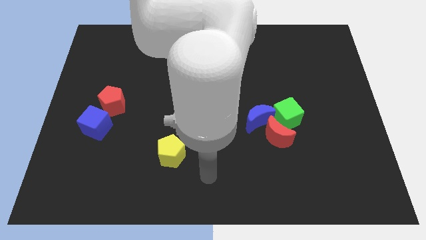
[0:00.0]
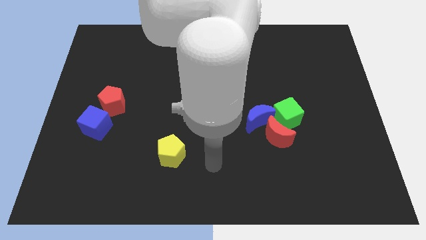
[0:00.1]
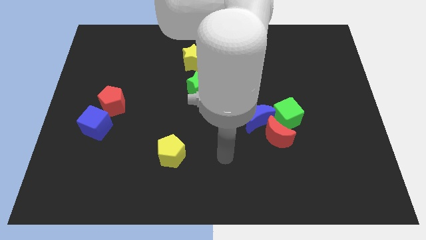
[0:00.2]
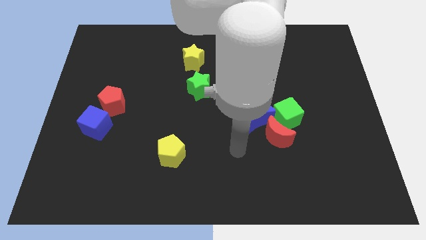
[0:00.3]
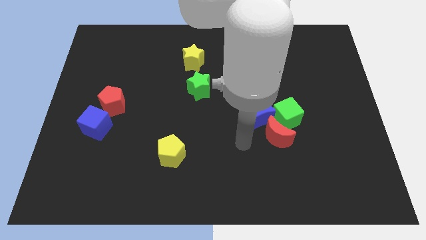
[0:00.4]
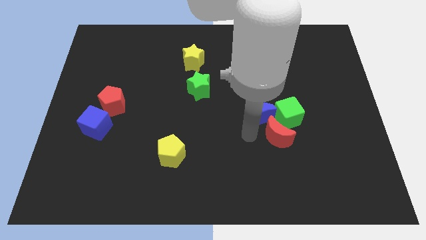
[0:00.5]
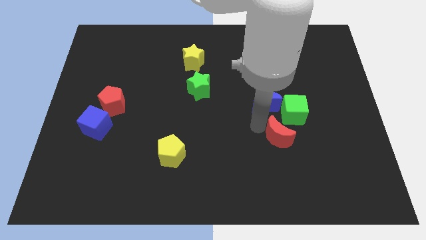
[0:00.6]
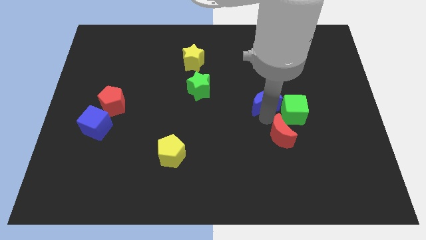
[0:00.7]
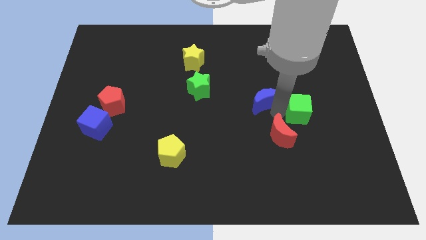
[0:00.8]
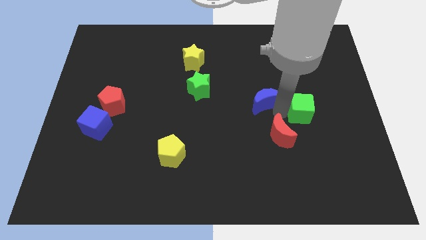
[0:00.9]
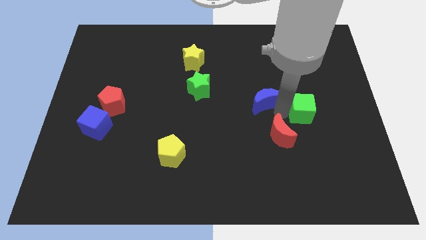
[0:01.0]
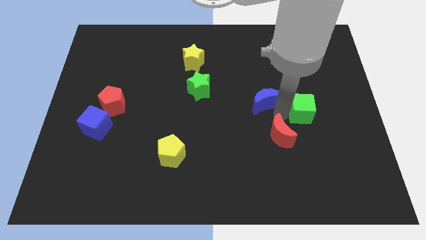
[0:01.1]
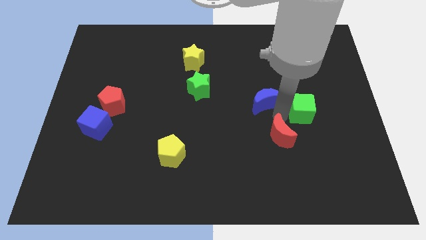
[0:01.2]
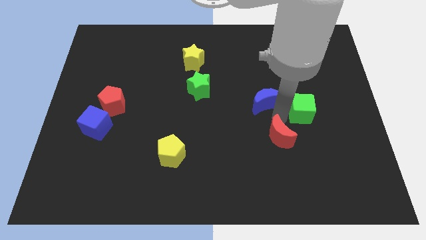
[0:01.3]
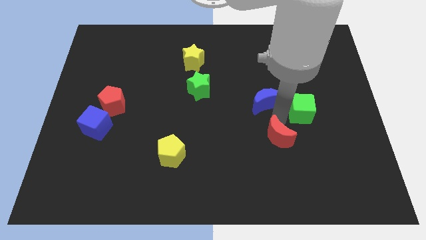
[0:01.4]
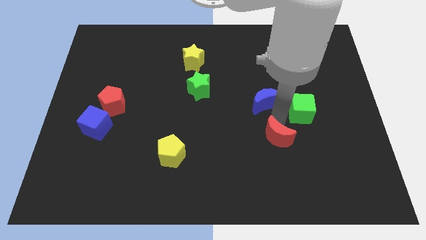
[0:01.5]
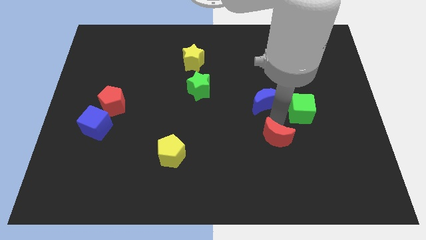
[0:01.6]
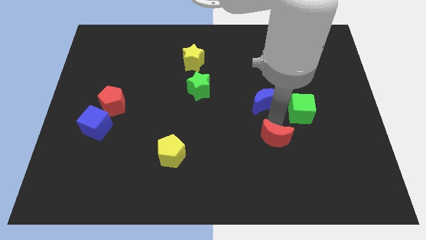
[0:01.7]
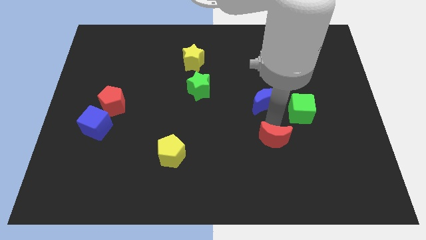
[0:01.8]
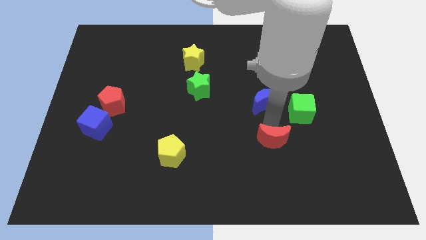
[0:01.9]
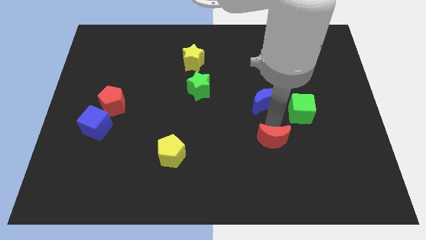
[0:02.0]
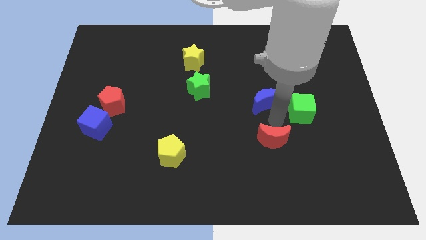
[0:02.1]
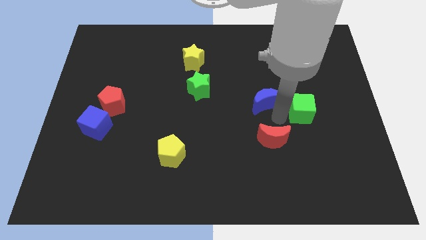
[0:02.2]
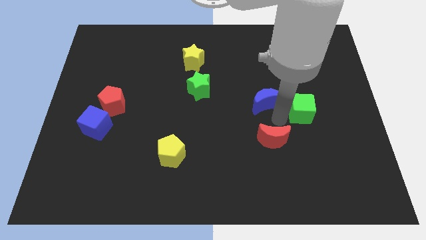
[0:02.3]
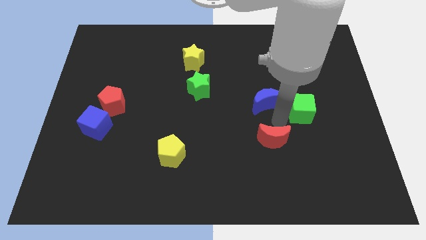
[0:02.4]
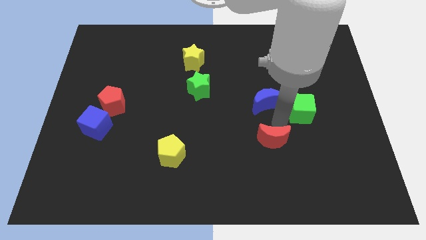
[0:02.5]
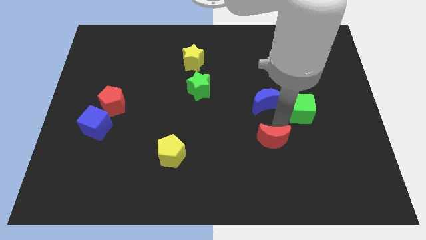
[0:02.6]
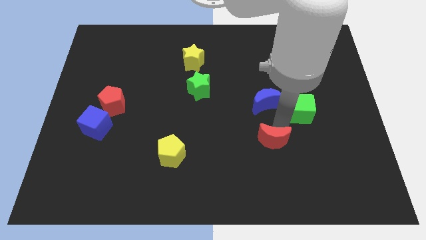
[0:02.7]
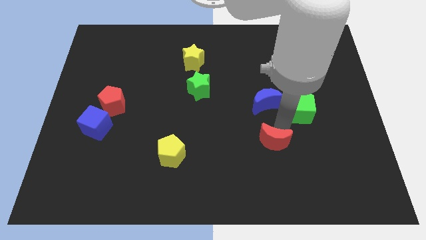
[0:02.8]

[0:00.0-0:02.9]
pull the red moon apart from the blue moon and green cube

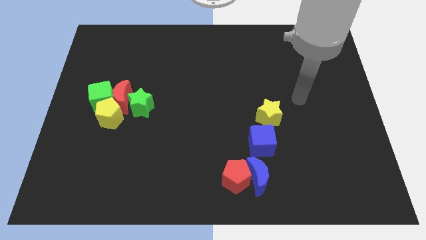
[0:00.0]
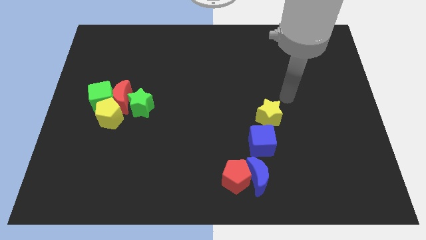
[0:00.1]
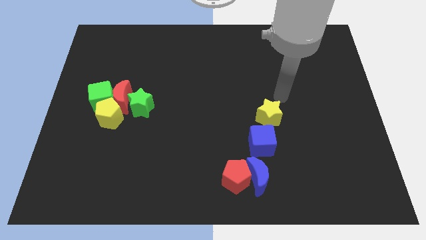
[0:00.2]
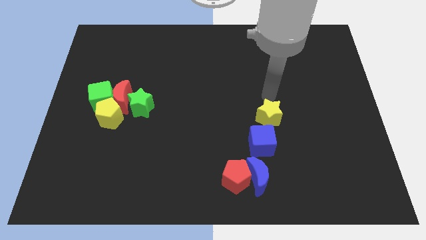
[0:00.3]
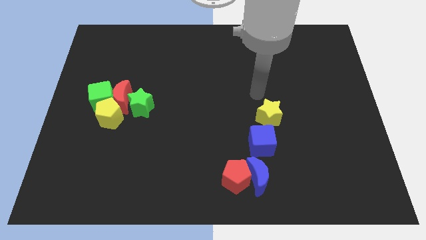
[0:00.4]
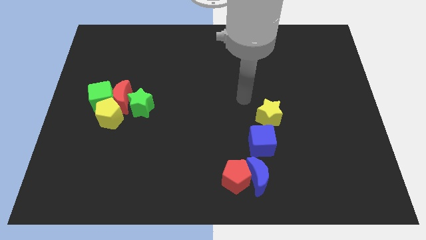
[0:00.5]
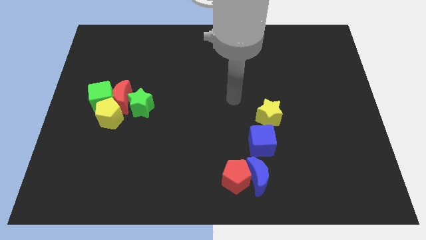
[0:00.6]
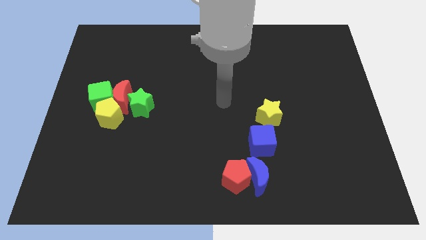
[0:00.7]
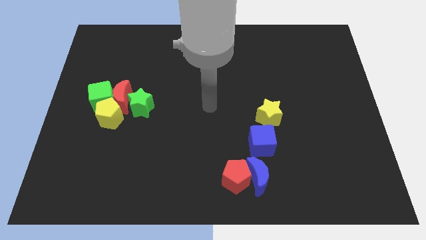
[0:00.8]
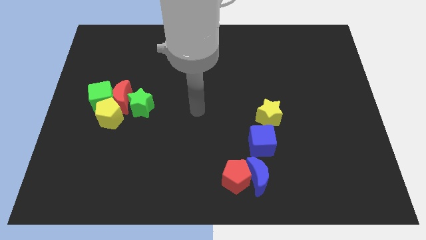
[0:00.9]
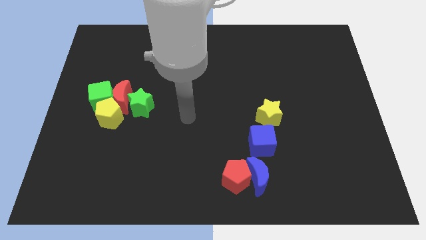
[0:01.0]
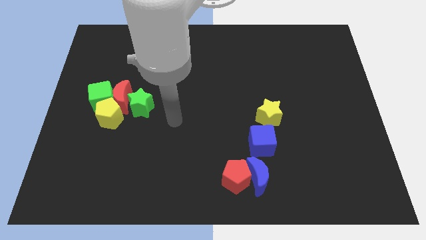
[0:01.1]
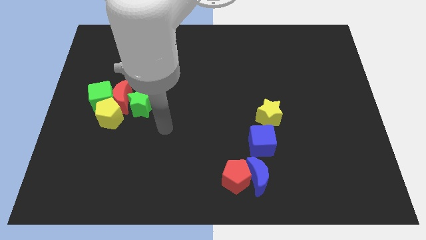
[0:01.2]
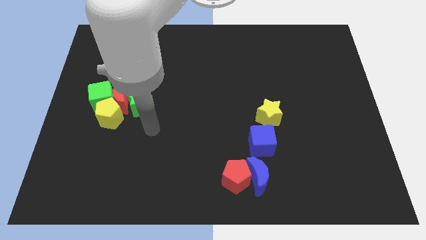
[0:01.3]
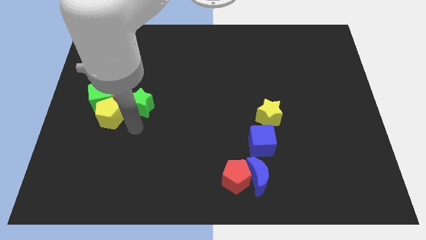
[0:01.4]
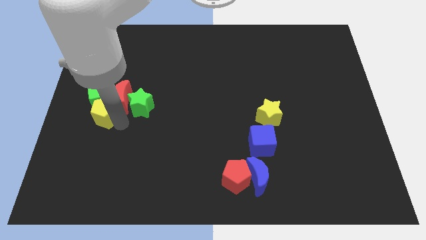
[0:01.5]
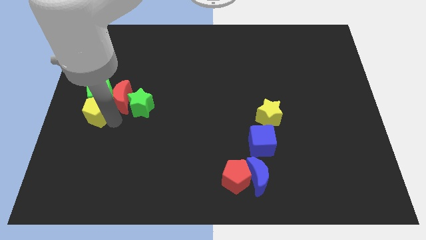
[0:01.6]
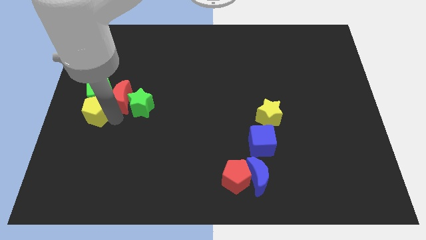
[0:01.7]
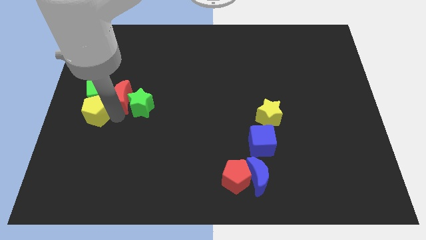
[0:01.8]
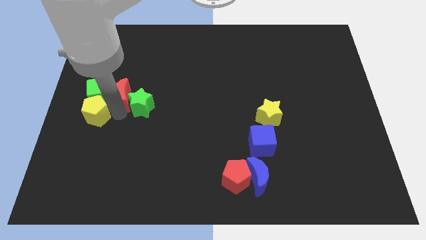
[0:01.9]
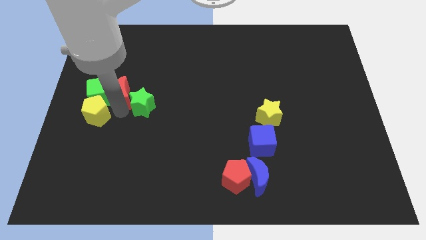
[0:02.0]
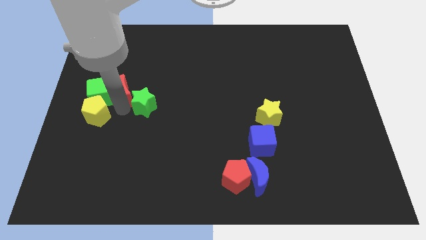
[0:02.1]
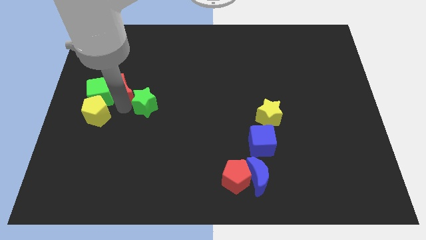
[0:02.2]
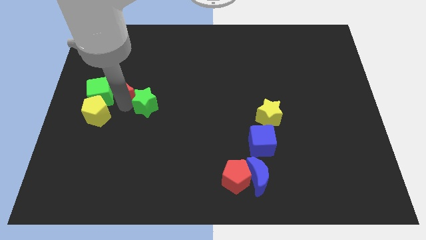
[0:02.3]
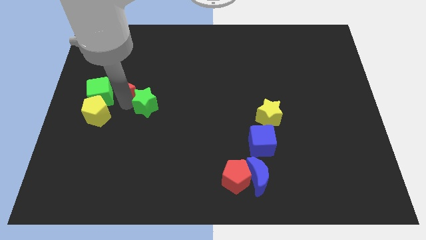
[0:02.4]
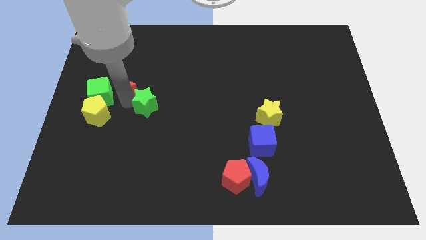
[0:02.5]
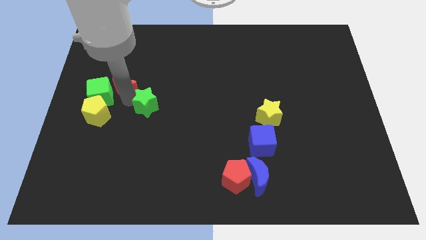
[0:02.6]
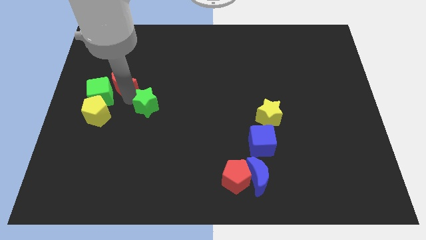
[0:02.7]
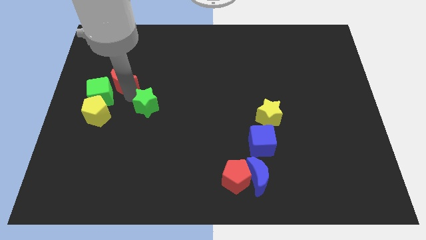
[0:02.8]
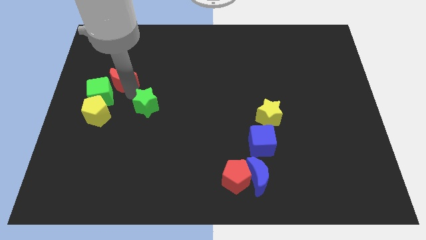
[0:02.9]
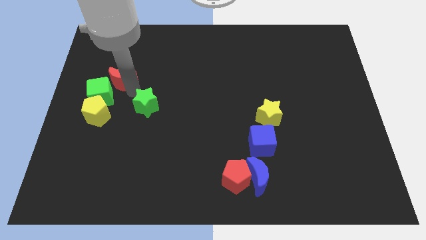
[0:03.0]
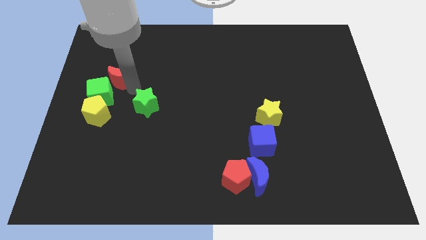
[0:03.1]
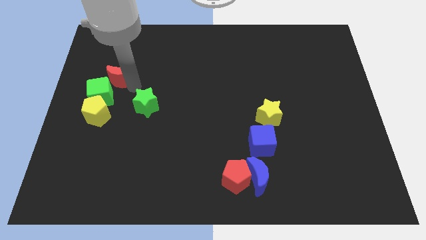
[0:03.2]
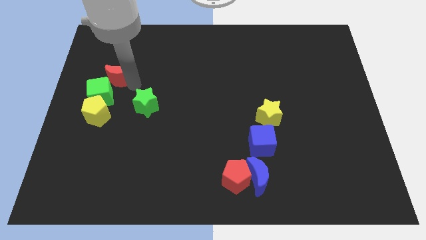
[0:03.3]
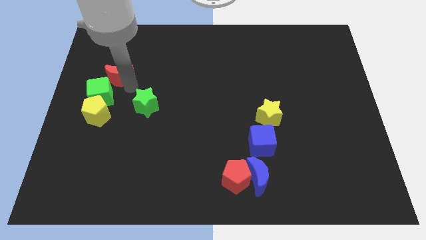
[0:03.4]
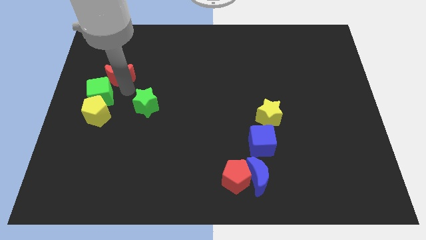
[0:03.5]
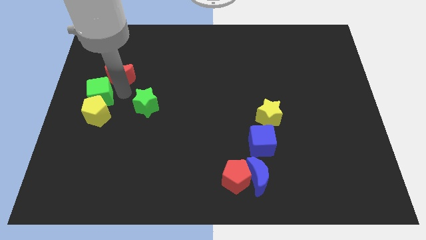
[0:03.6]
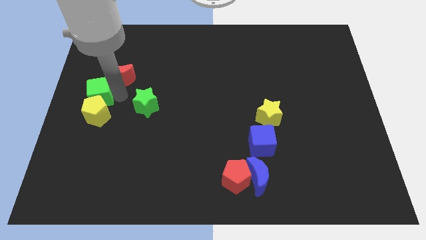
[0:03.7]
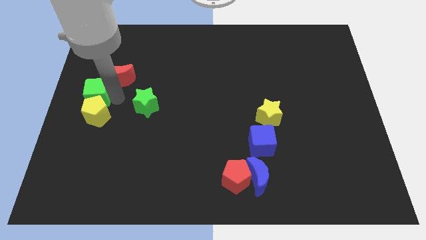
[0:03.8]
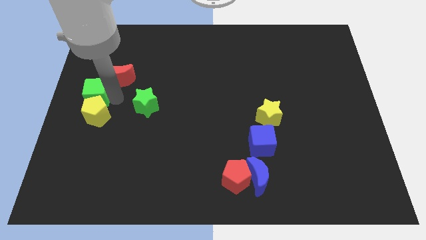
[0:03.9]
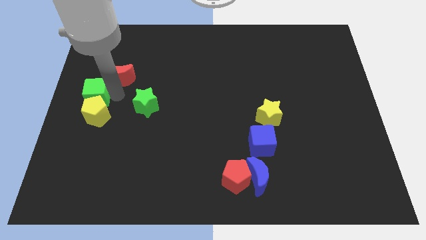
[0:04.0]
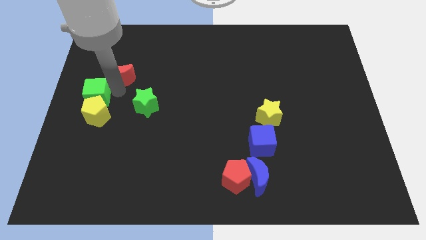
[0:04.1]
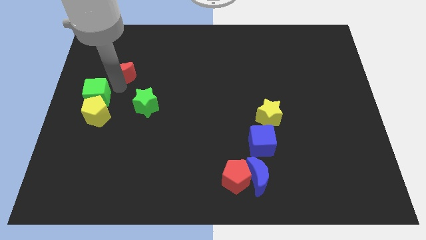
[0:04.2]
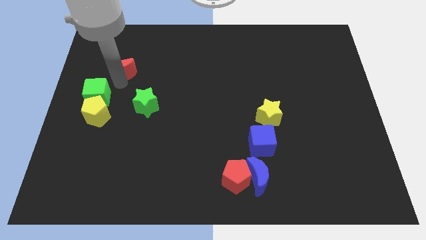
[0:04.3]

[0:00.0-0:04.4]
move the red moon away from the green cube, green star, and yellow pentagon

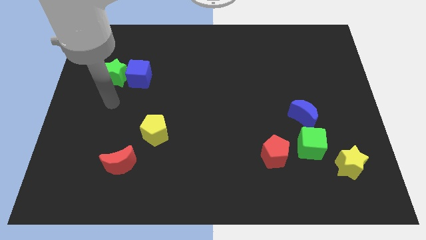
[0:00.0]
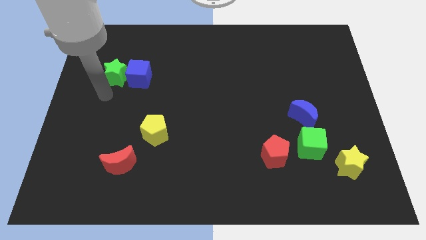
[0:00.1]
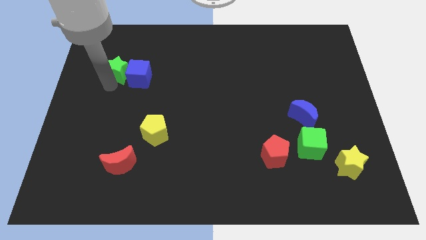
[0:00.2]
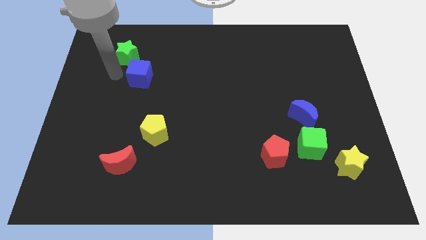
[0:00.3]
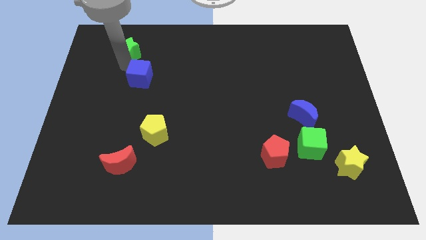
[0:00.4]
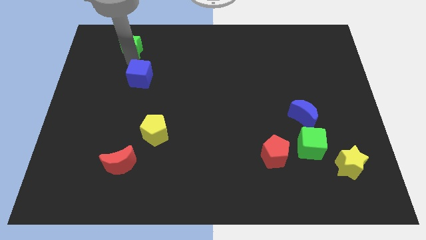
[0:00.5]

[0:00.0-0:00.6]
separate the blue cube from the green star

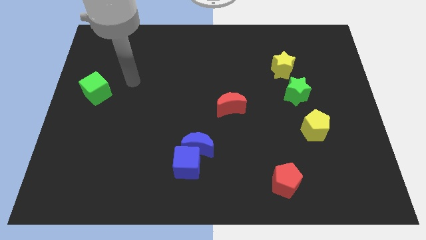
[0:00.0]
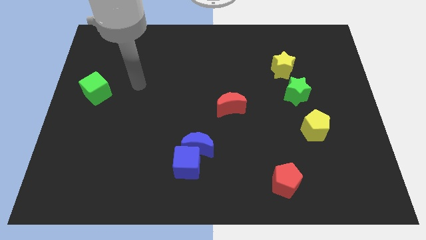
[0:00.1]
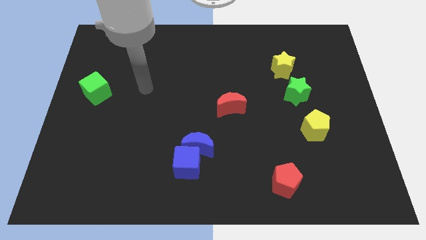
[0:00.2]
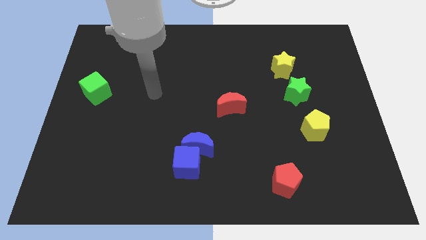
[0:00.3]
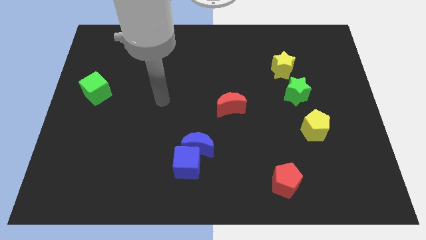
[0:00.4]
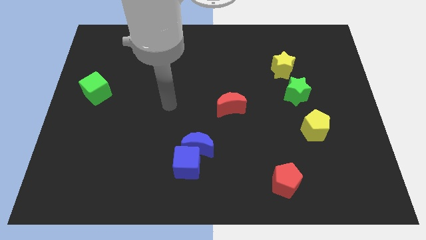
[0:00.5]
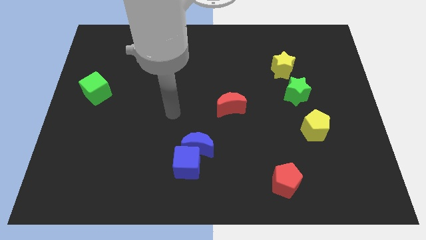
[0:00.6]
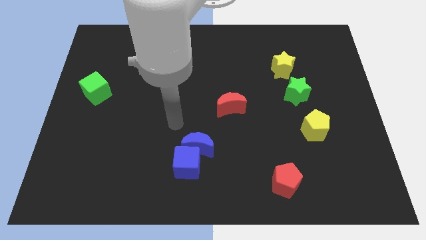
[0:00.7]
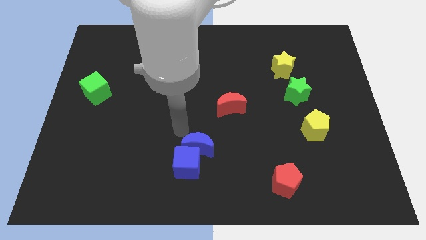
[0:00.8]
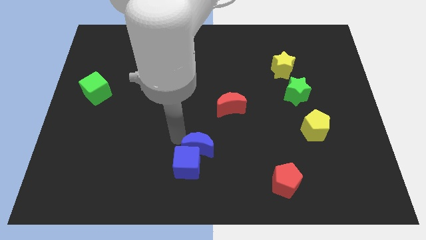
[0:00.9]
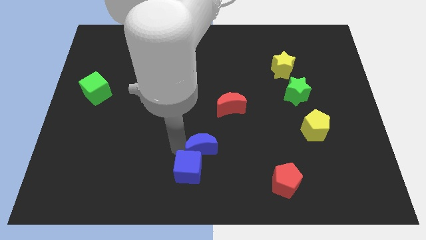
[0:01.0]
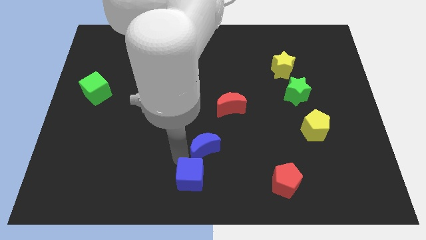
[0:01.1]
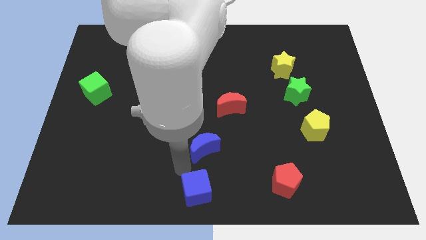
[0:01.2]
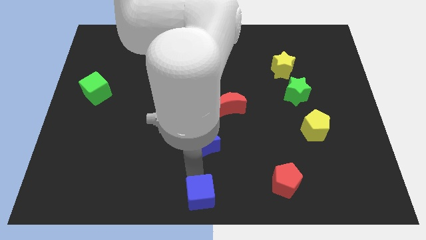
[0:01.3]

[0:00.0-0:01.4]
separate the blue moon from the blue cube
